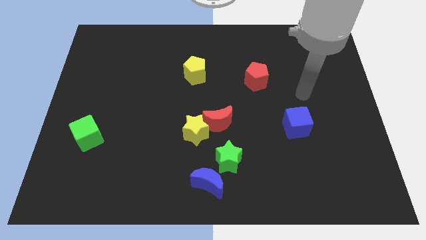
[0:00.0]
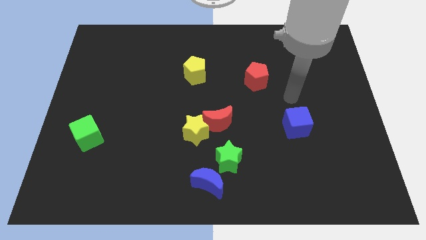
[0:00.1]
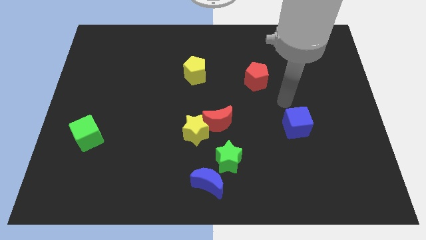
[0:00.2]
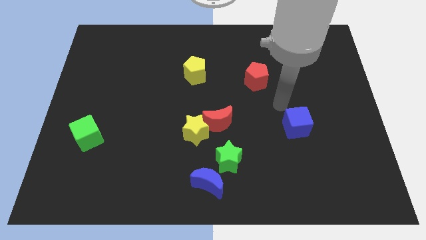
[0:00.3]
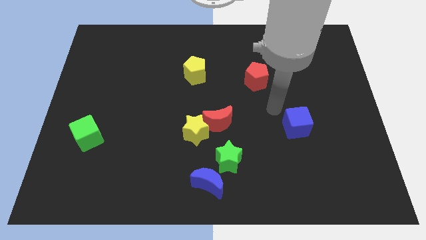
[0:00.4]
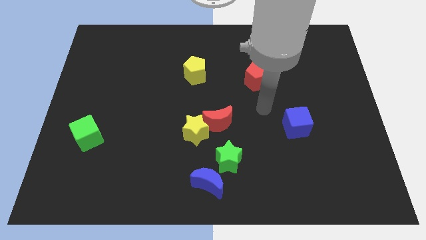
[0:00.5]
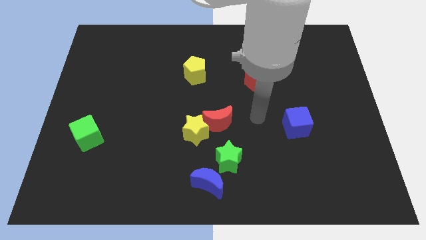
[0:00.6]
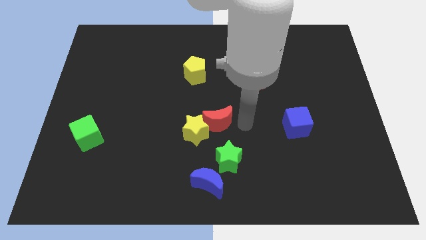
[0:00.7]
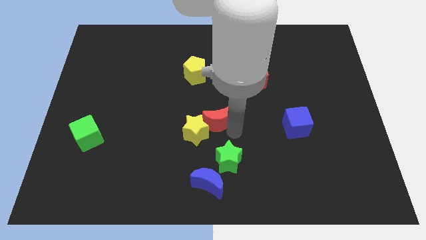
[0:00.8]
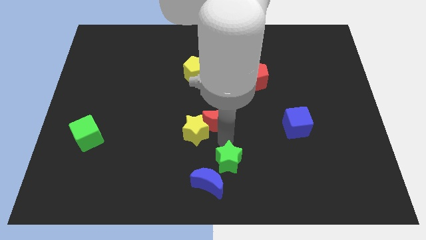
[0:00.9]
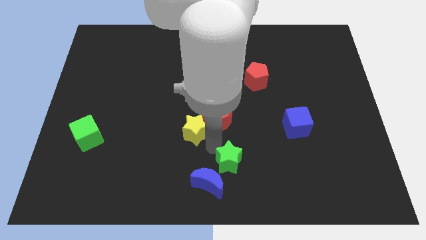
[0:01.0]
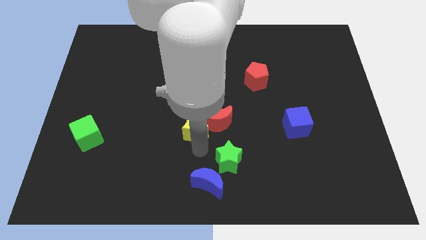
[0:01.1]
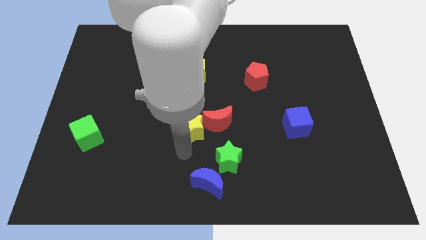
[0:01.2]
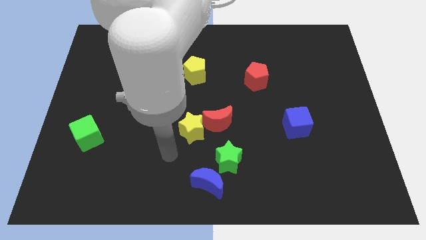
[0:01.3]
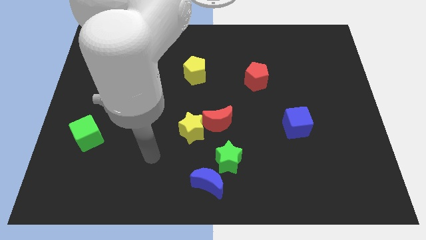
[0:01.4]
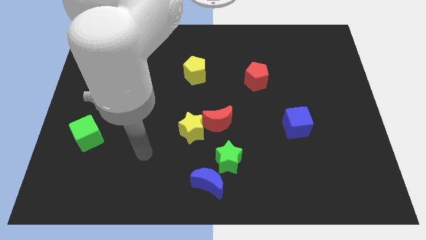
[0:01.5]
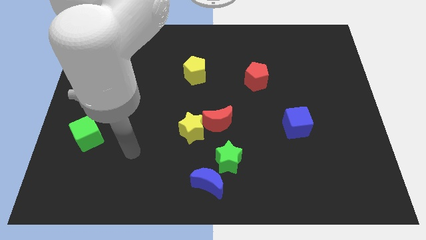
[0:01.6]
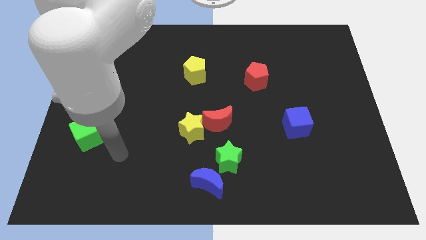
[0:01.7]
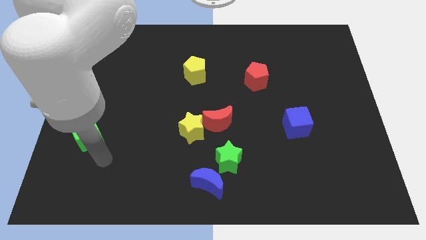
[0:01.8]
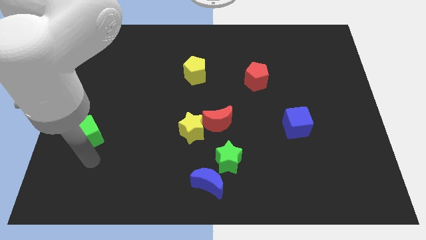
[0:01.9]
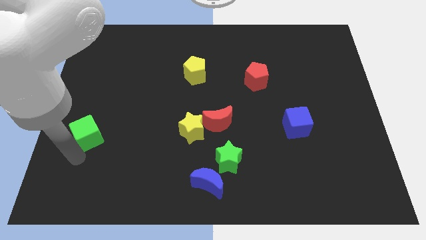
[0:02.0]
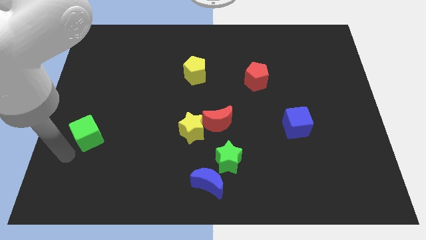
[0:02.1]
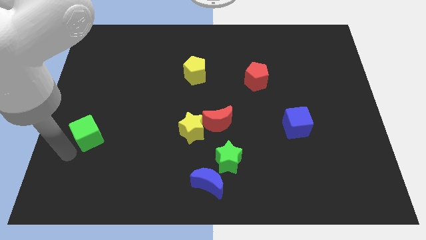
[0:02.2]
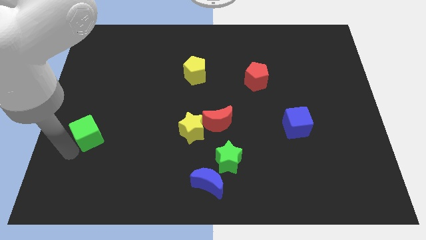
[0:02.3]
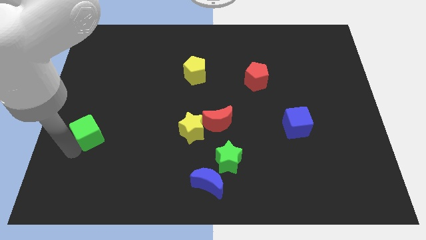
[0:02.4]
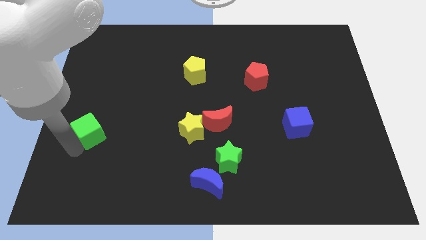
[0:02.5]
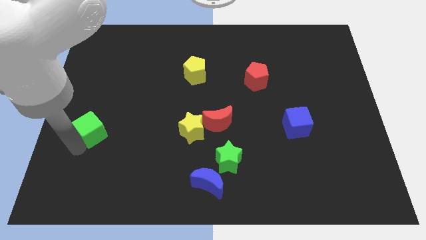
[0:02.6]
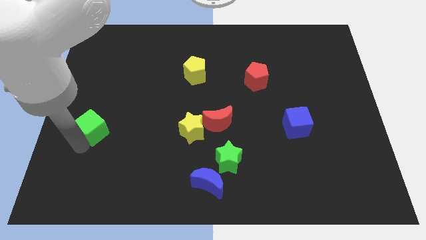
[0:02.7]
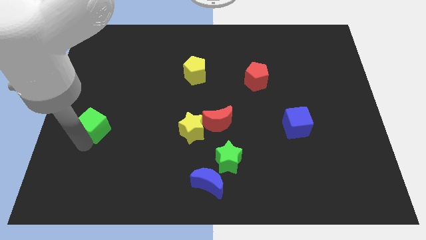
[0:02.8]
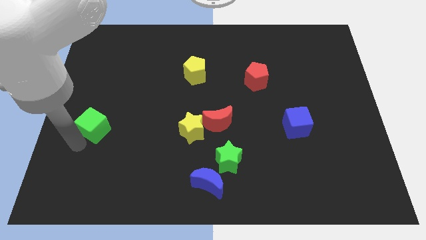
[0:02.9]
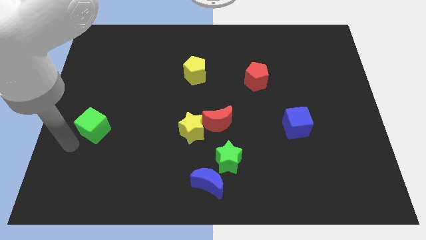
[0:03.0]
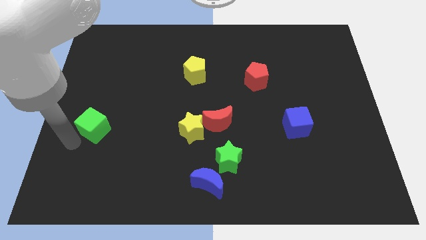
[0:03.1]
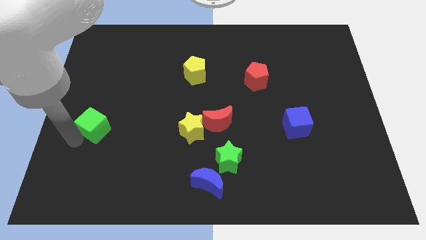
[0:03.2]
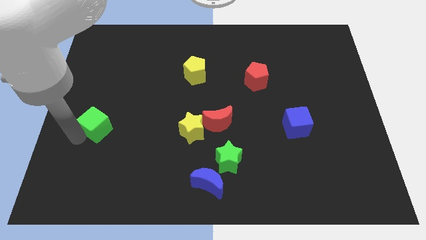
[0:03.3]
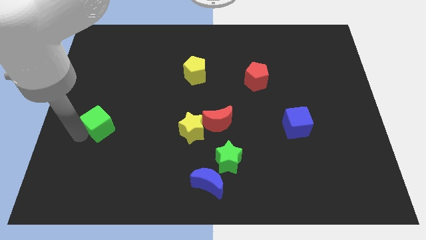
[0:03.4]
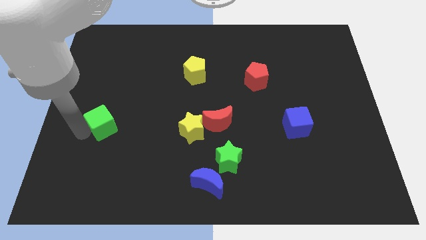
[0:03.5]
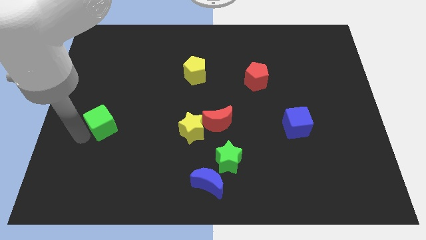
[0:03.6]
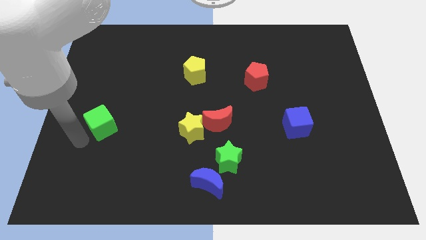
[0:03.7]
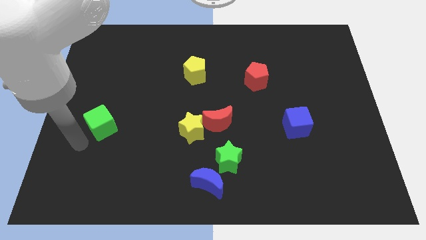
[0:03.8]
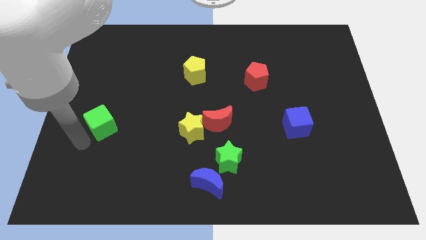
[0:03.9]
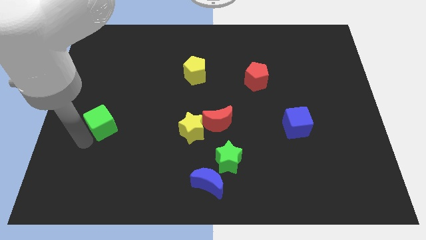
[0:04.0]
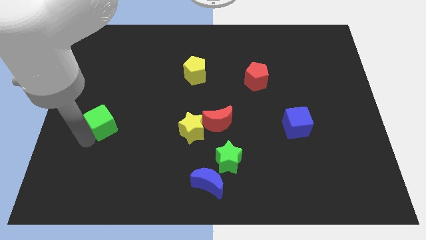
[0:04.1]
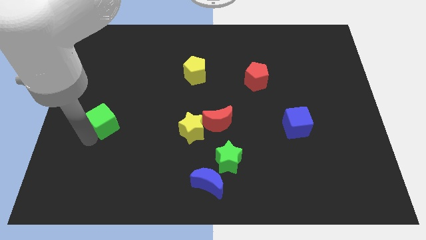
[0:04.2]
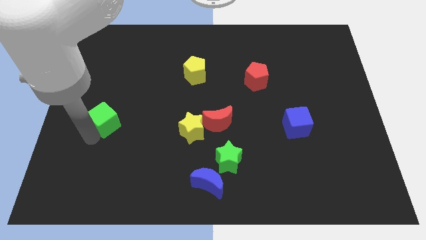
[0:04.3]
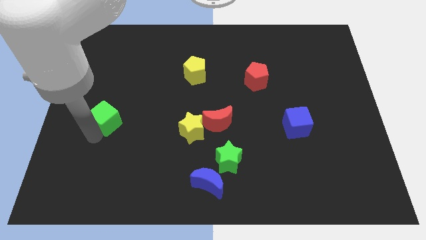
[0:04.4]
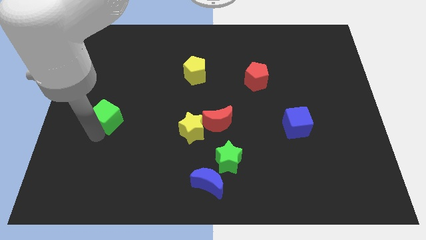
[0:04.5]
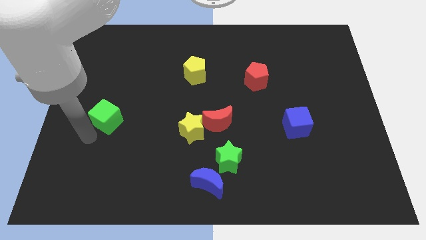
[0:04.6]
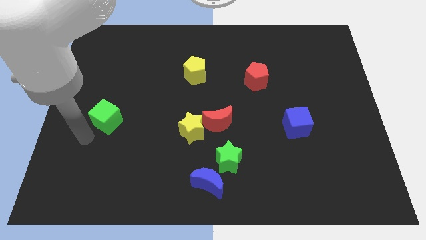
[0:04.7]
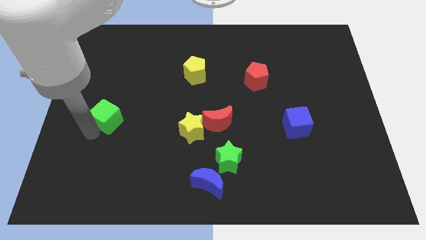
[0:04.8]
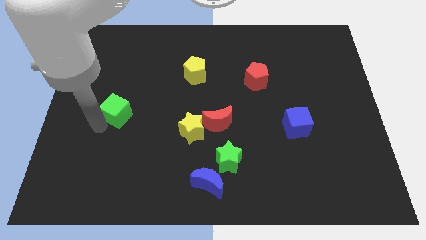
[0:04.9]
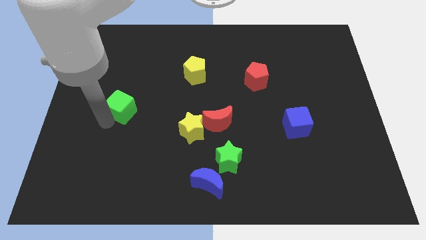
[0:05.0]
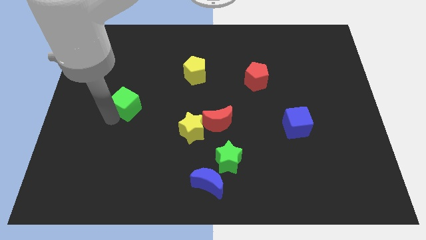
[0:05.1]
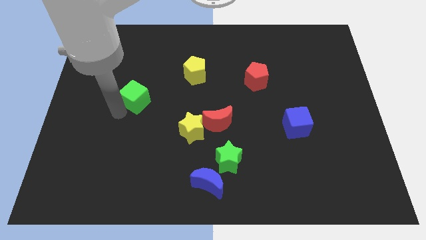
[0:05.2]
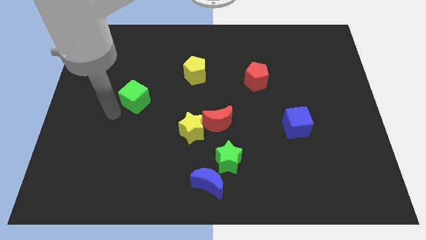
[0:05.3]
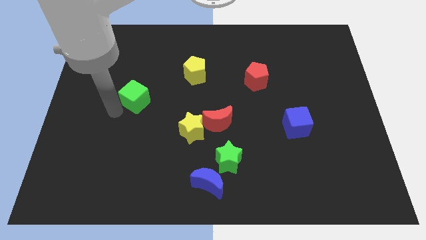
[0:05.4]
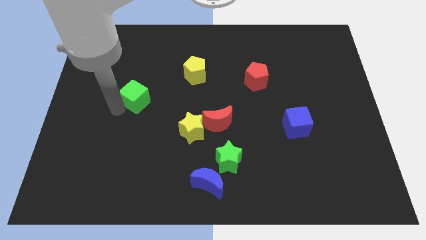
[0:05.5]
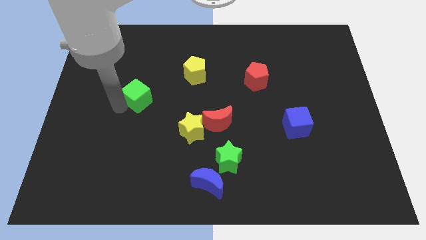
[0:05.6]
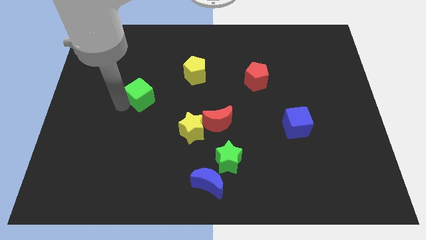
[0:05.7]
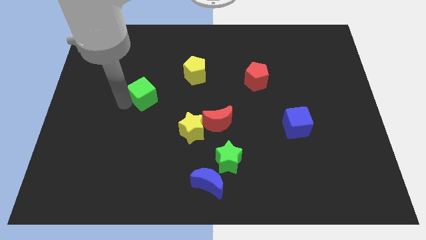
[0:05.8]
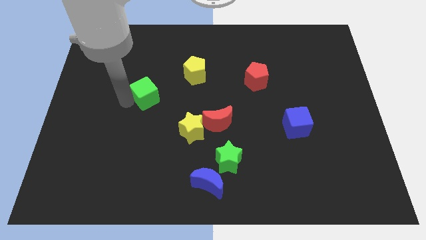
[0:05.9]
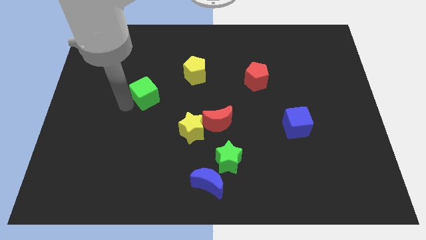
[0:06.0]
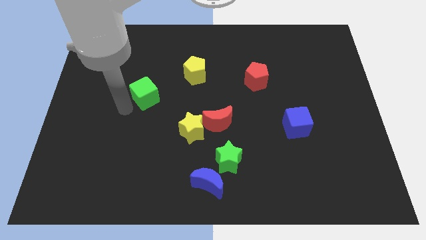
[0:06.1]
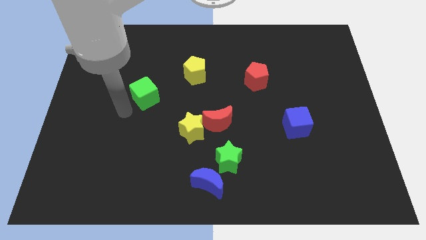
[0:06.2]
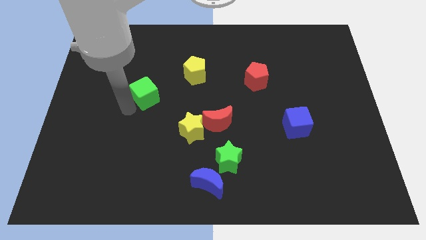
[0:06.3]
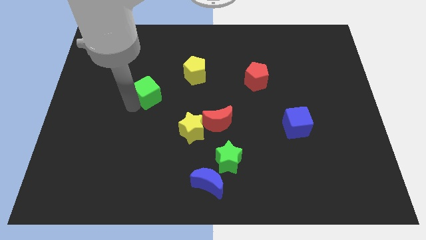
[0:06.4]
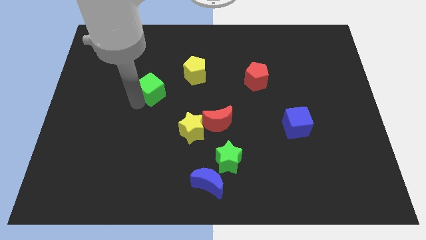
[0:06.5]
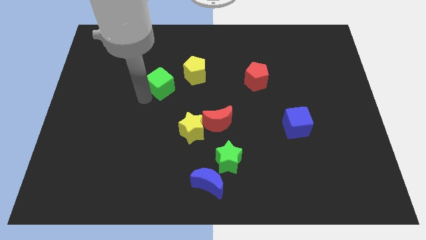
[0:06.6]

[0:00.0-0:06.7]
push the green cube upwards and right diagonally

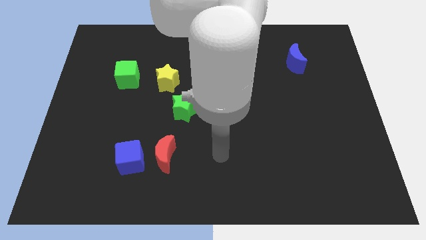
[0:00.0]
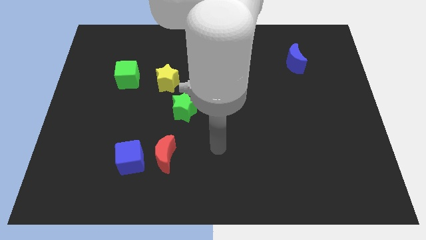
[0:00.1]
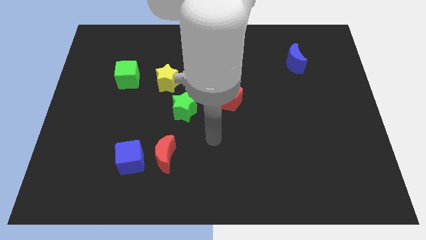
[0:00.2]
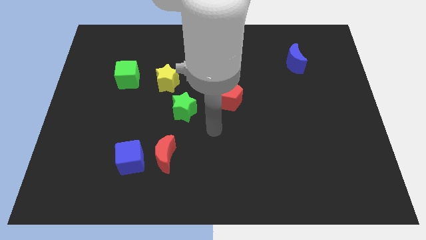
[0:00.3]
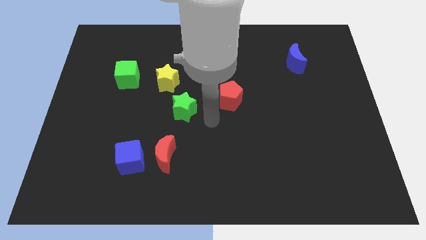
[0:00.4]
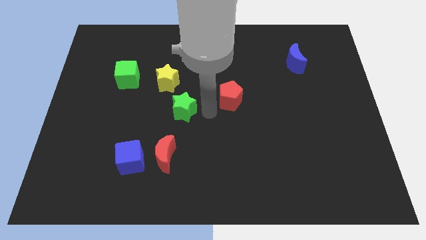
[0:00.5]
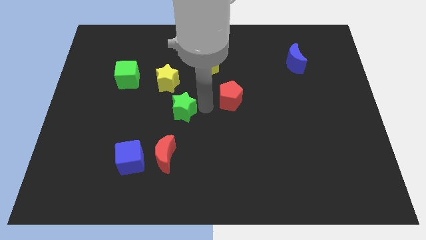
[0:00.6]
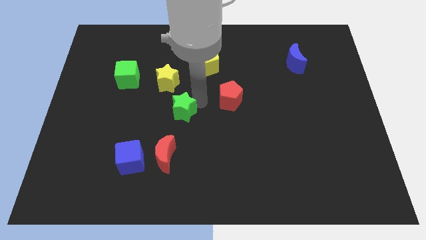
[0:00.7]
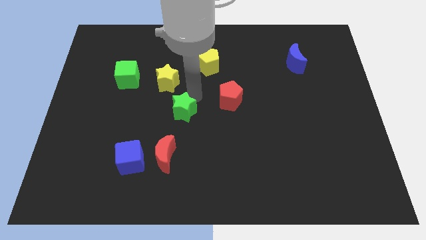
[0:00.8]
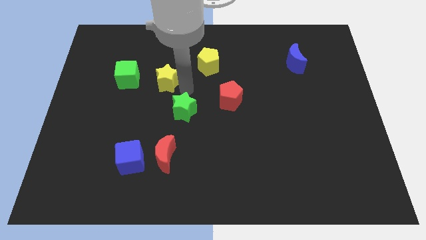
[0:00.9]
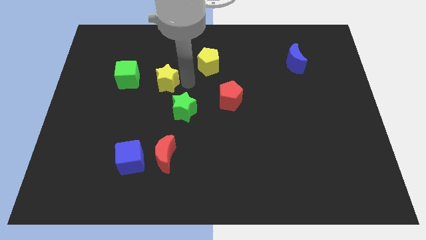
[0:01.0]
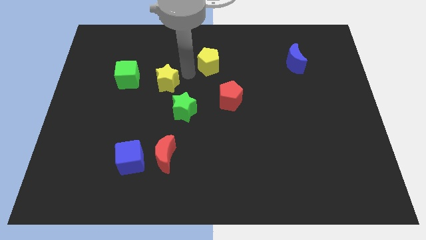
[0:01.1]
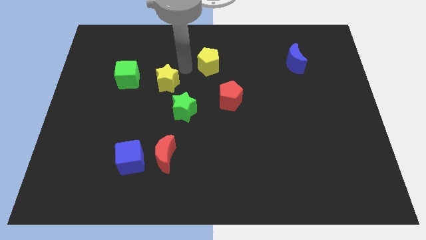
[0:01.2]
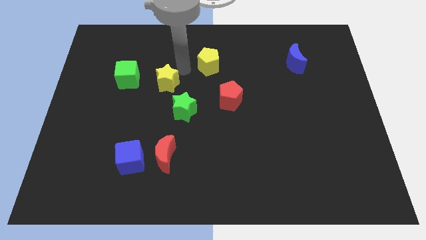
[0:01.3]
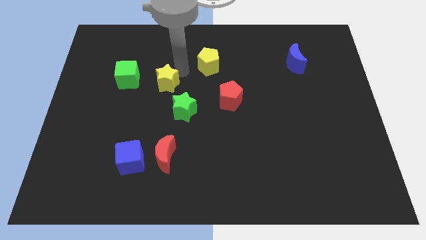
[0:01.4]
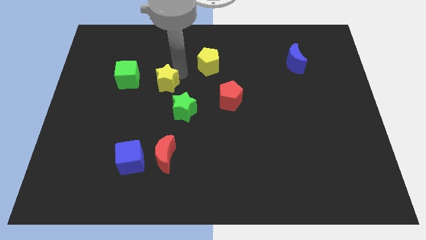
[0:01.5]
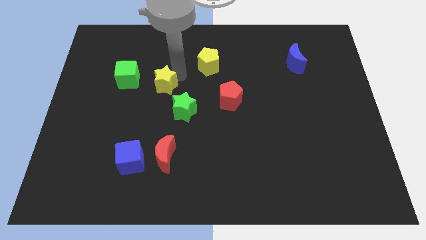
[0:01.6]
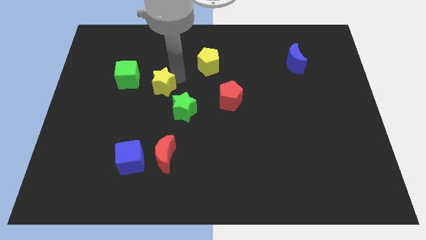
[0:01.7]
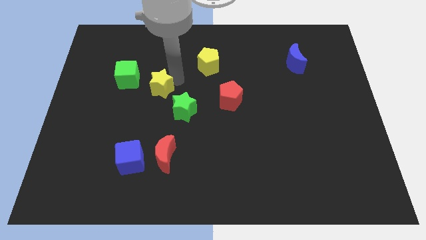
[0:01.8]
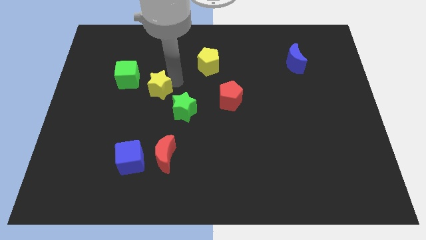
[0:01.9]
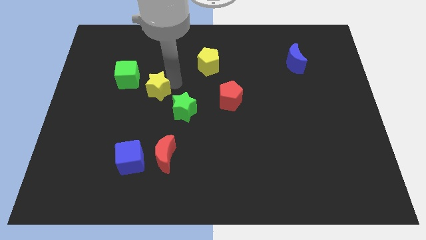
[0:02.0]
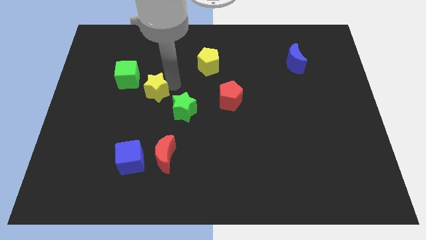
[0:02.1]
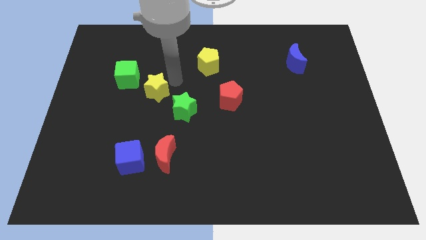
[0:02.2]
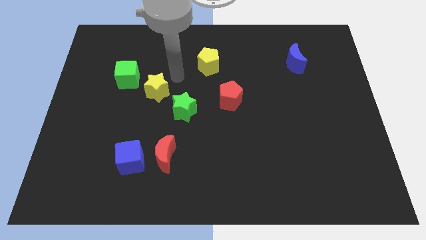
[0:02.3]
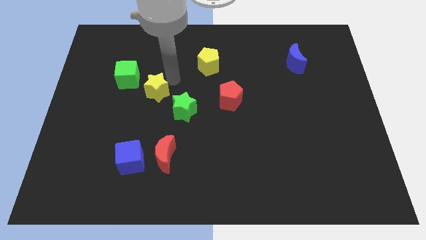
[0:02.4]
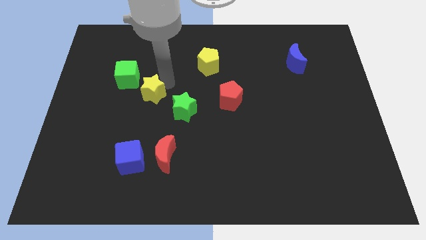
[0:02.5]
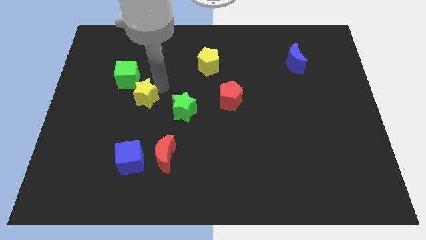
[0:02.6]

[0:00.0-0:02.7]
slightly move the yellow star diagonally downwards and to the left
